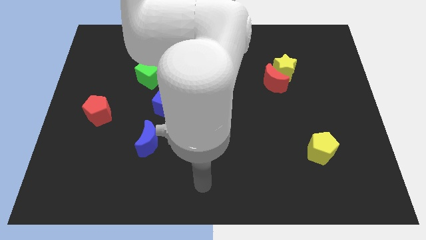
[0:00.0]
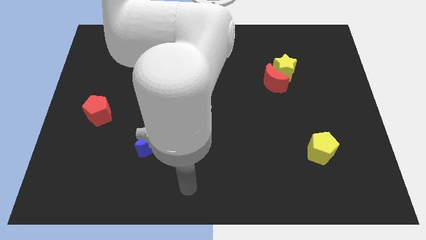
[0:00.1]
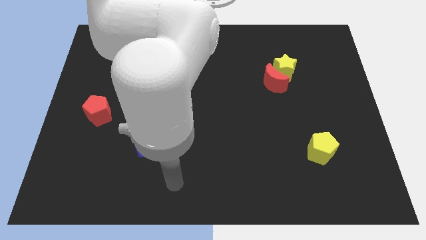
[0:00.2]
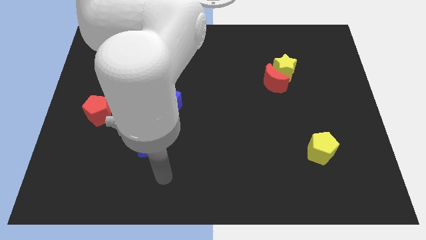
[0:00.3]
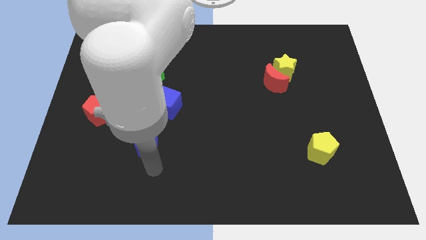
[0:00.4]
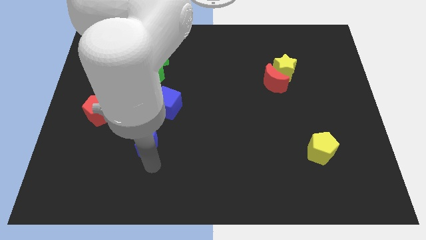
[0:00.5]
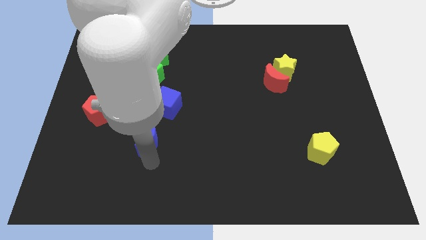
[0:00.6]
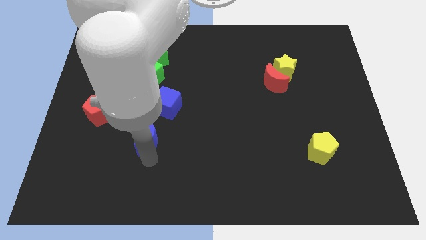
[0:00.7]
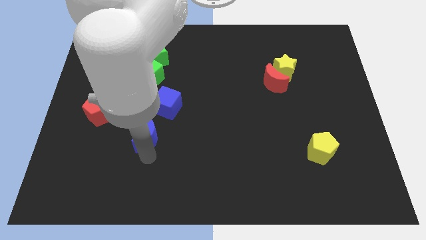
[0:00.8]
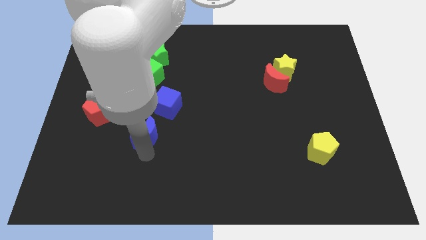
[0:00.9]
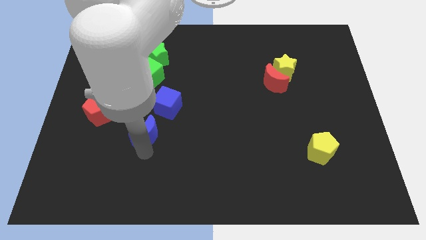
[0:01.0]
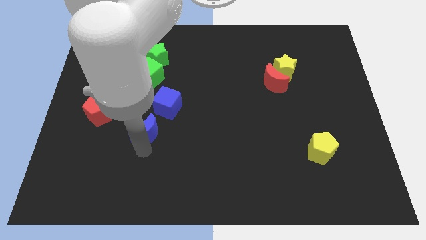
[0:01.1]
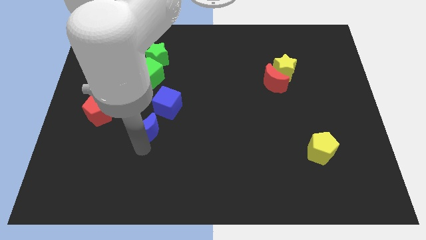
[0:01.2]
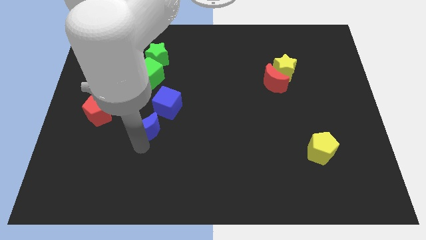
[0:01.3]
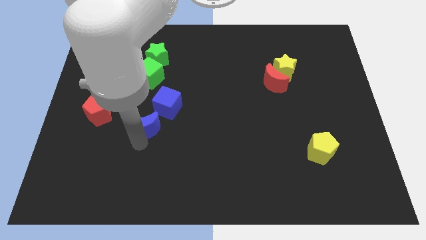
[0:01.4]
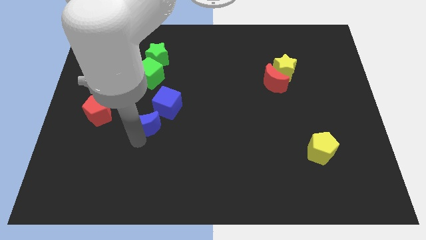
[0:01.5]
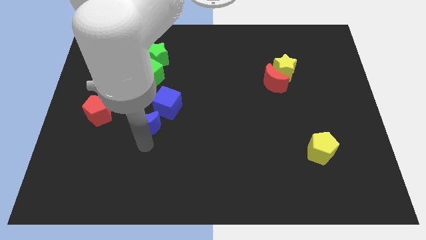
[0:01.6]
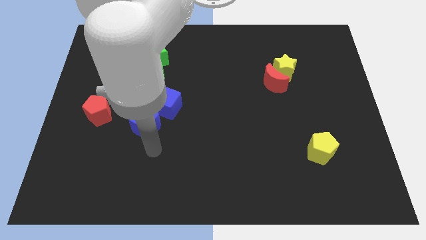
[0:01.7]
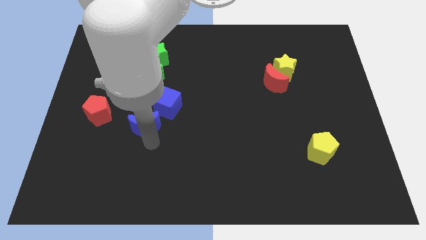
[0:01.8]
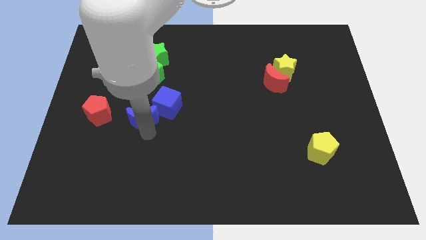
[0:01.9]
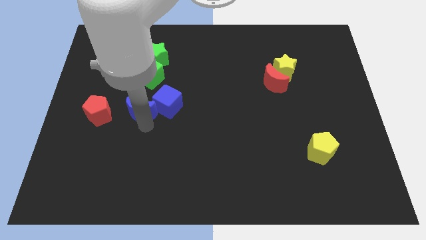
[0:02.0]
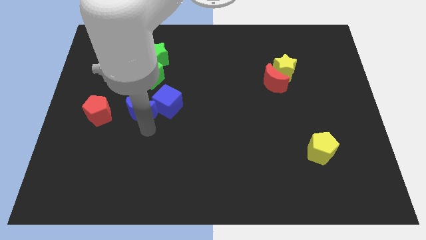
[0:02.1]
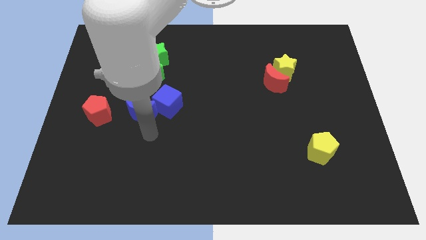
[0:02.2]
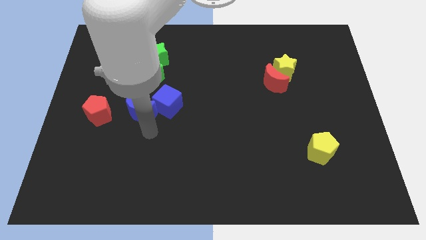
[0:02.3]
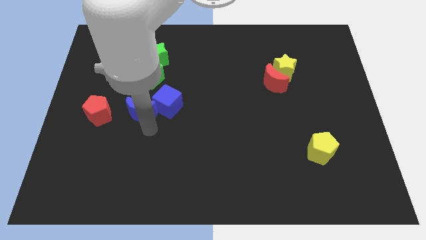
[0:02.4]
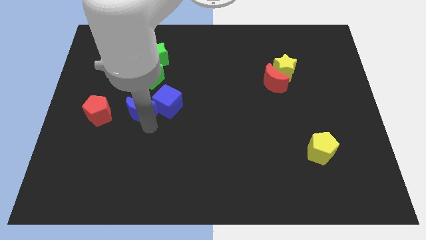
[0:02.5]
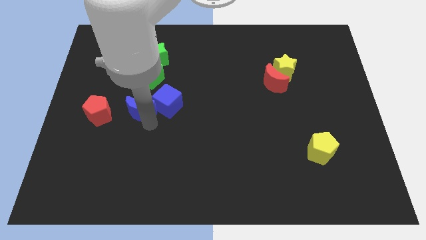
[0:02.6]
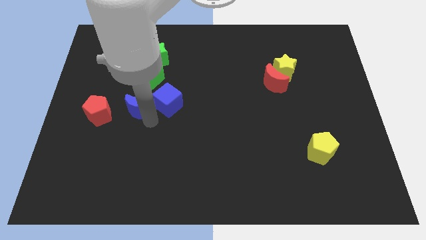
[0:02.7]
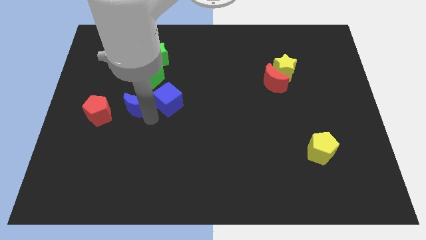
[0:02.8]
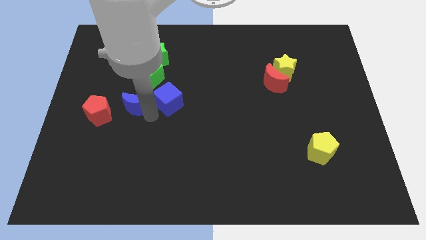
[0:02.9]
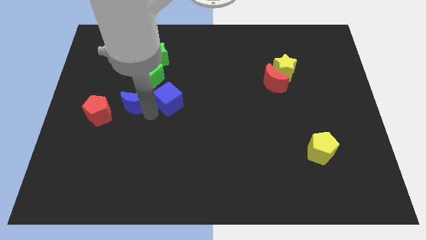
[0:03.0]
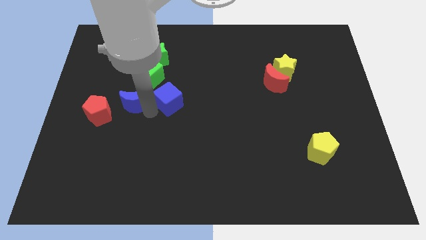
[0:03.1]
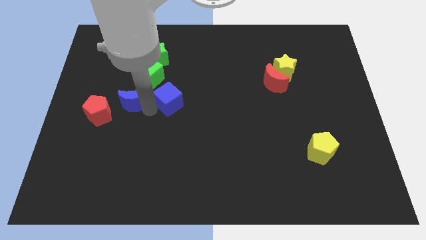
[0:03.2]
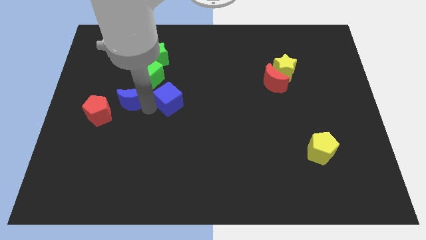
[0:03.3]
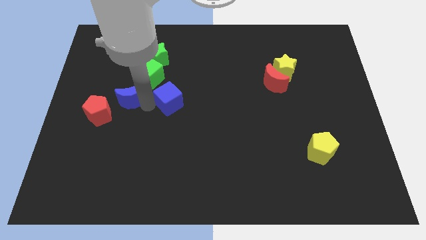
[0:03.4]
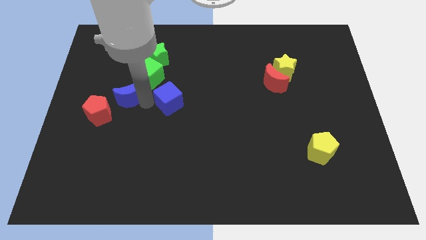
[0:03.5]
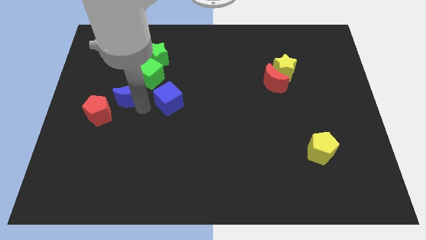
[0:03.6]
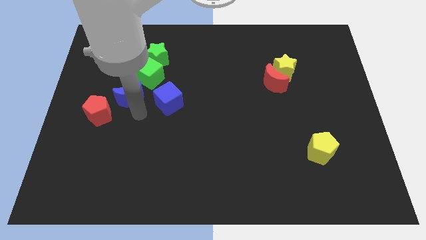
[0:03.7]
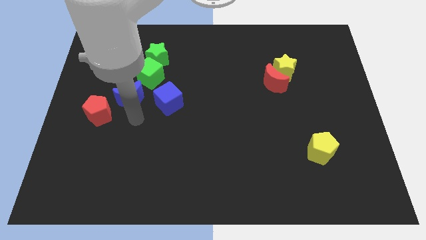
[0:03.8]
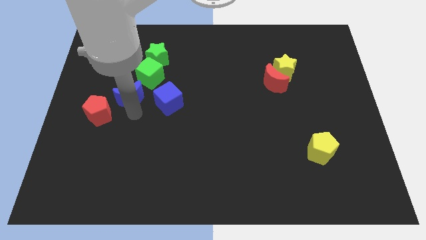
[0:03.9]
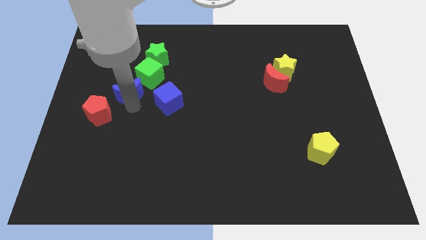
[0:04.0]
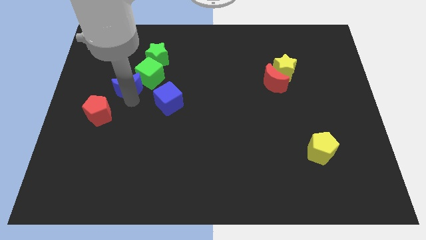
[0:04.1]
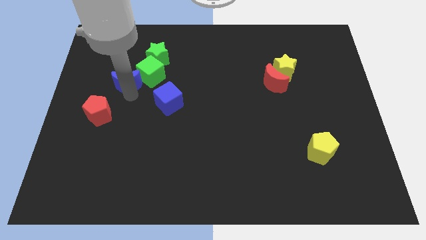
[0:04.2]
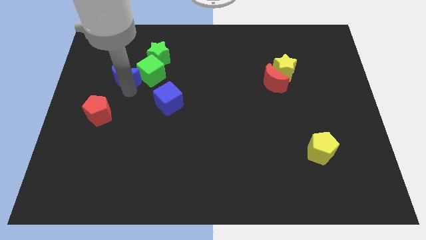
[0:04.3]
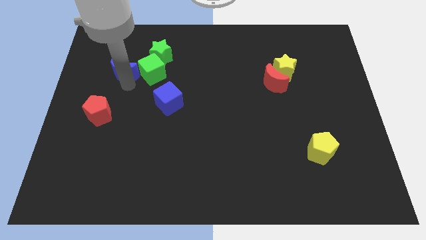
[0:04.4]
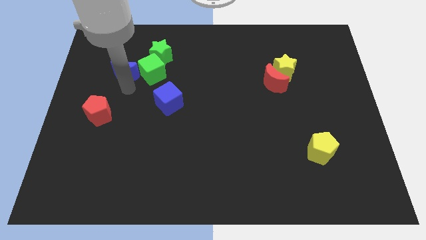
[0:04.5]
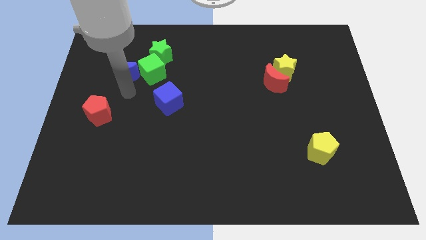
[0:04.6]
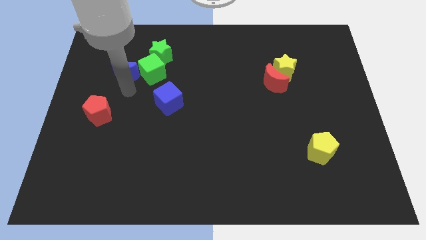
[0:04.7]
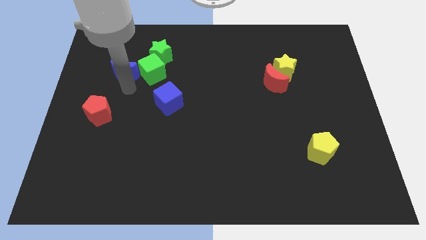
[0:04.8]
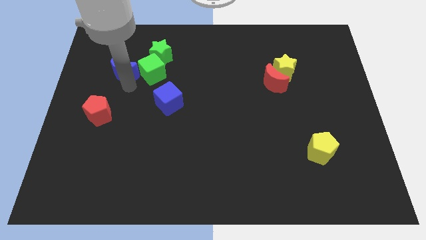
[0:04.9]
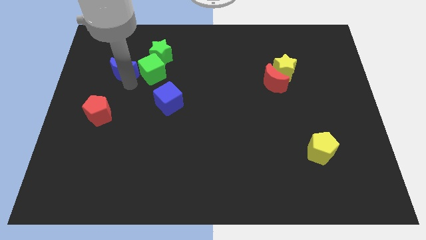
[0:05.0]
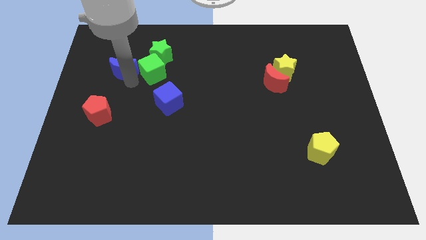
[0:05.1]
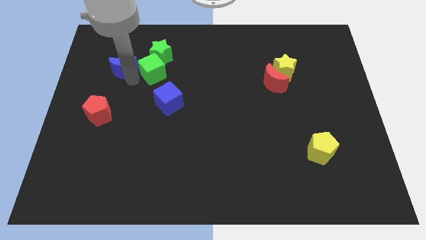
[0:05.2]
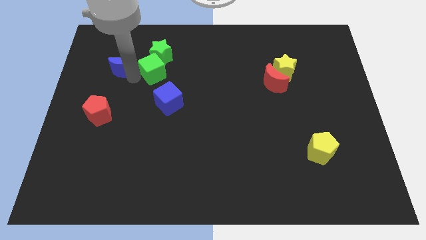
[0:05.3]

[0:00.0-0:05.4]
put the blue moon left of the green star

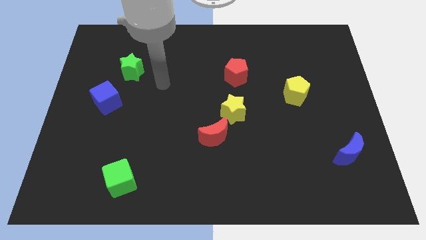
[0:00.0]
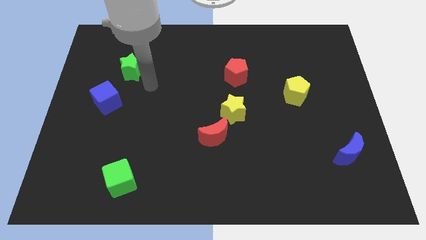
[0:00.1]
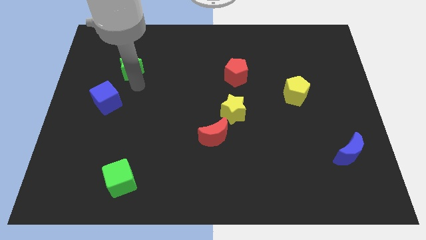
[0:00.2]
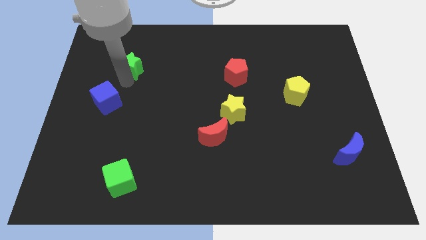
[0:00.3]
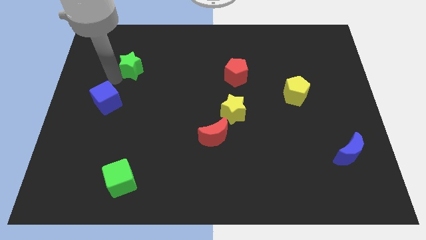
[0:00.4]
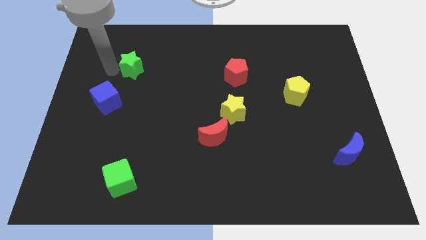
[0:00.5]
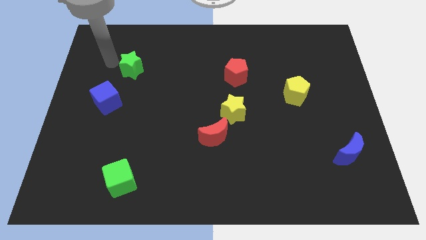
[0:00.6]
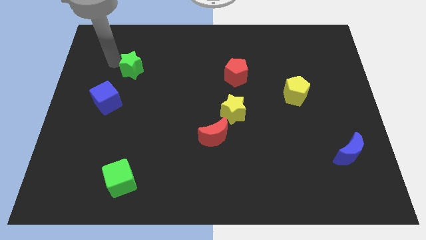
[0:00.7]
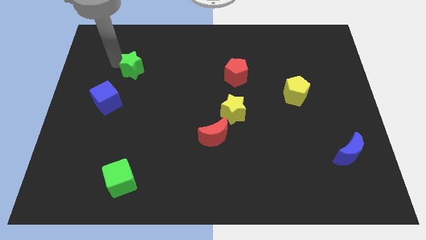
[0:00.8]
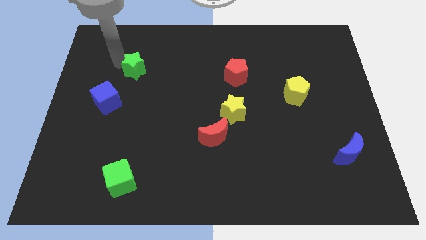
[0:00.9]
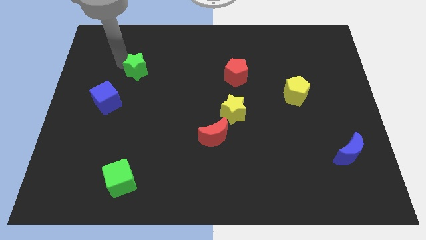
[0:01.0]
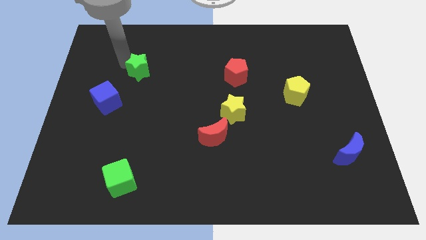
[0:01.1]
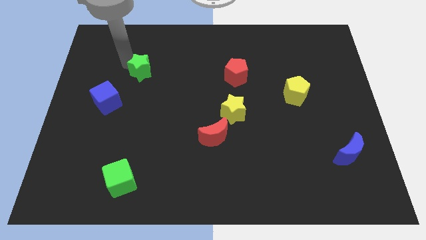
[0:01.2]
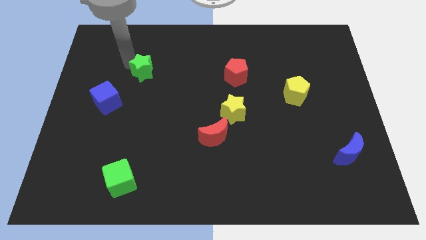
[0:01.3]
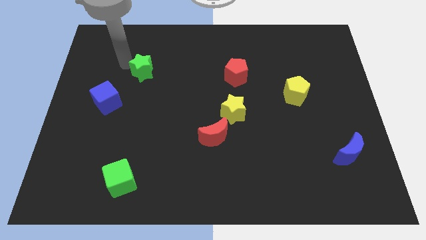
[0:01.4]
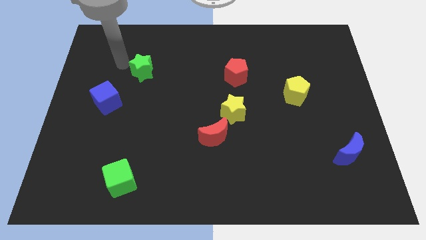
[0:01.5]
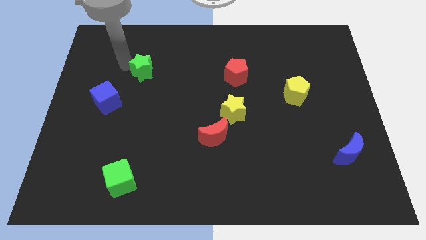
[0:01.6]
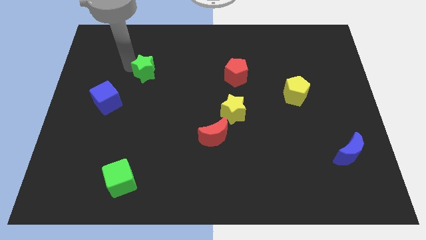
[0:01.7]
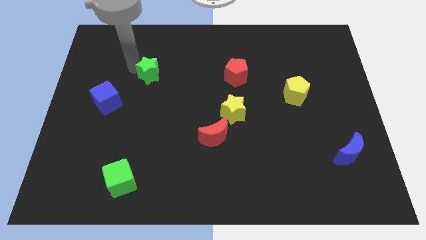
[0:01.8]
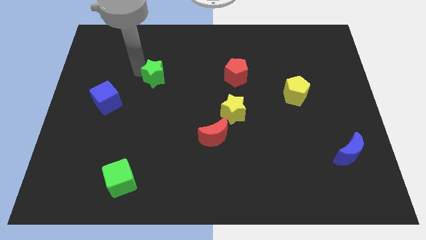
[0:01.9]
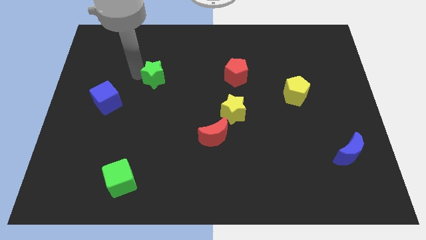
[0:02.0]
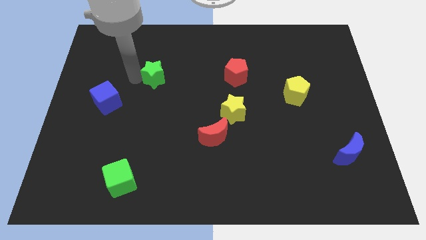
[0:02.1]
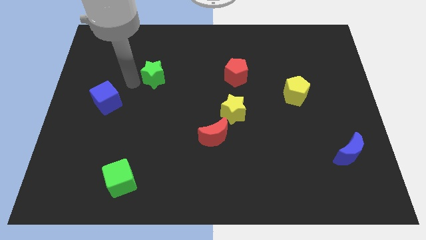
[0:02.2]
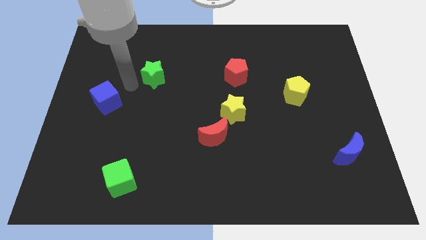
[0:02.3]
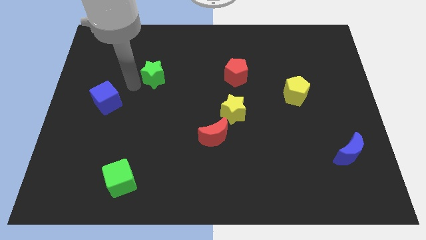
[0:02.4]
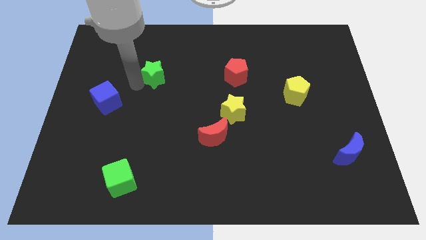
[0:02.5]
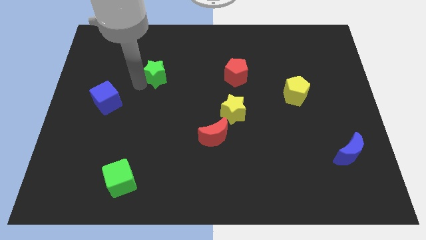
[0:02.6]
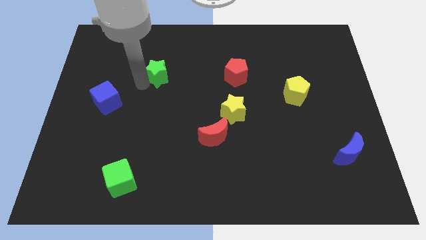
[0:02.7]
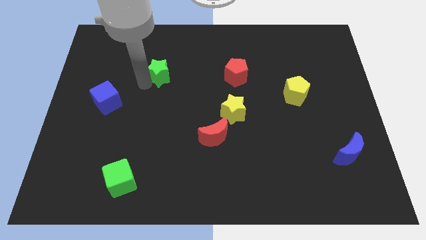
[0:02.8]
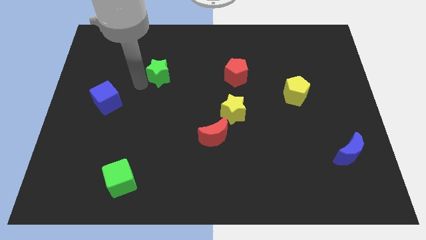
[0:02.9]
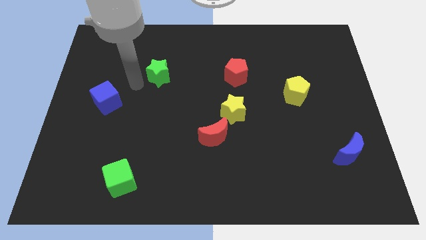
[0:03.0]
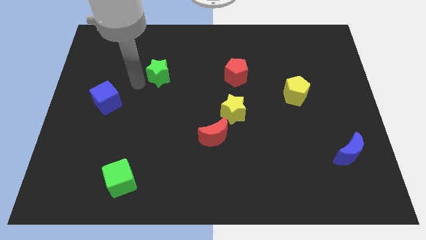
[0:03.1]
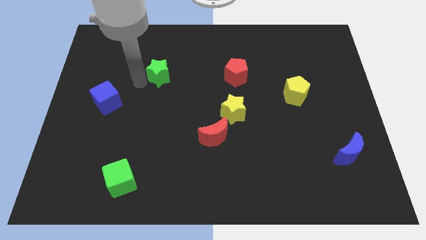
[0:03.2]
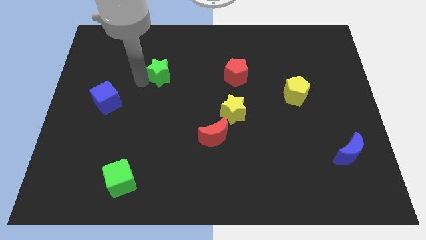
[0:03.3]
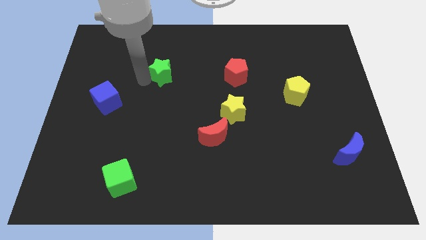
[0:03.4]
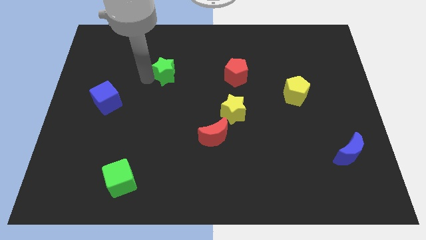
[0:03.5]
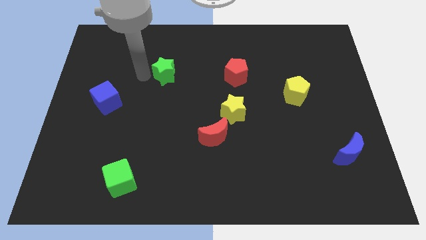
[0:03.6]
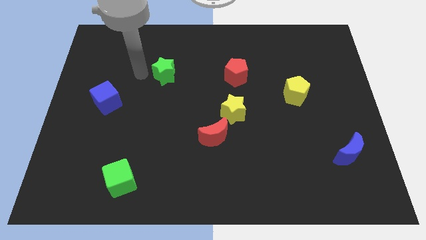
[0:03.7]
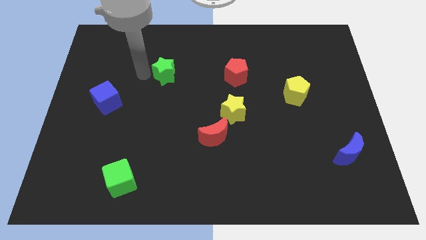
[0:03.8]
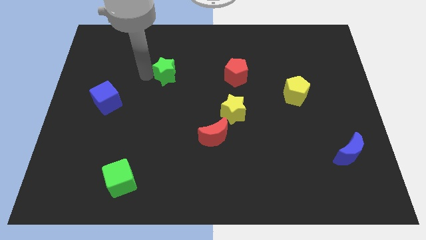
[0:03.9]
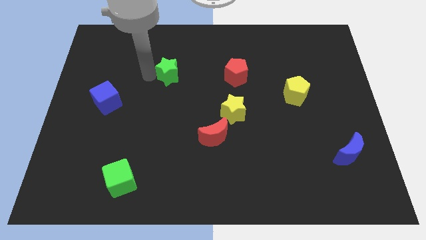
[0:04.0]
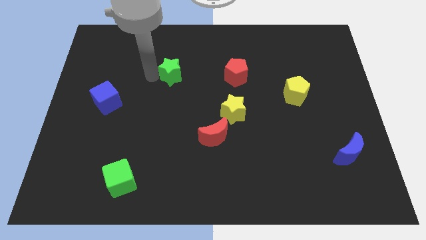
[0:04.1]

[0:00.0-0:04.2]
push the green star to the left of the red pentagon
